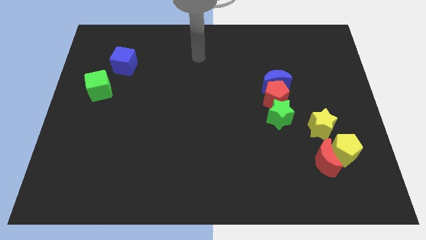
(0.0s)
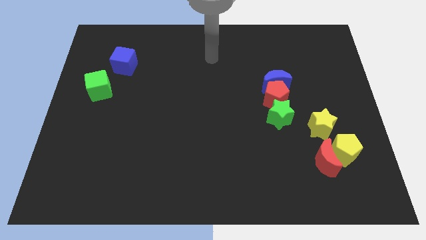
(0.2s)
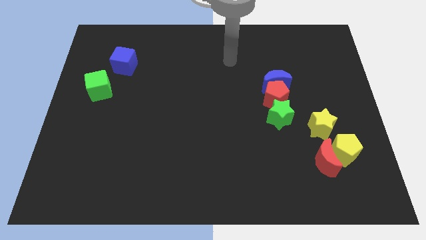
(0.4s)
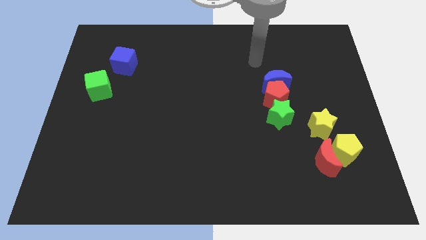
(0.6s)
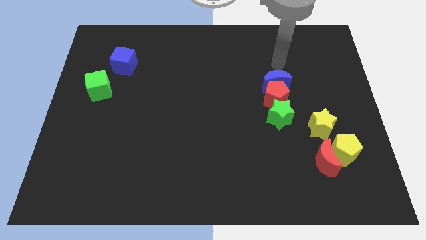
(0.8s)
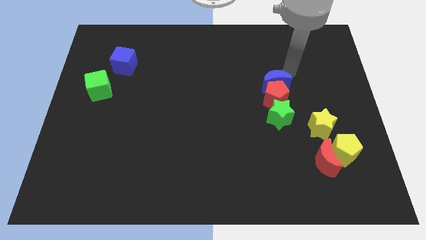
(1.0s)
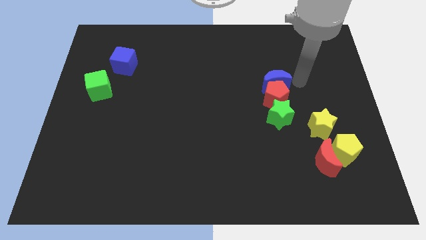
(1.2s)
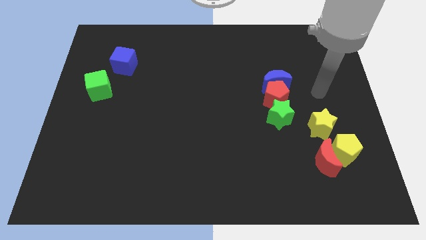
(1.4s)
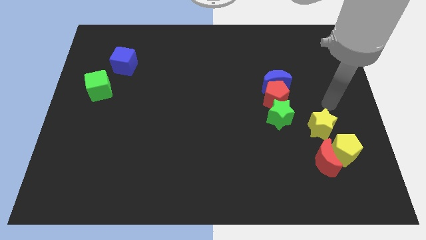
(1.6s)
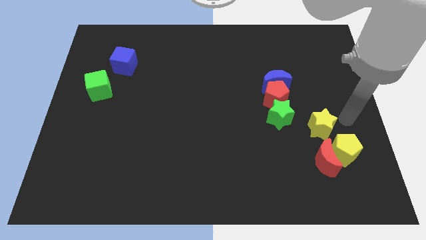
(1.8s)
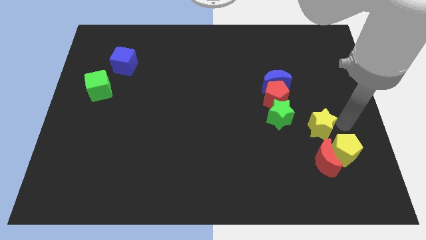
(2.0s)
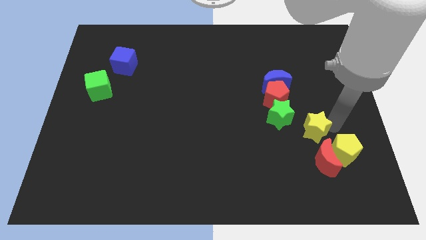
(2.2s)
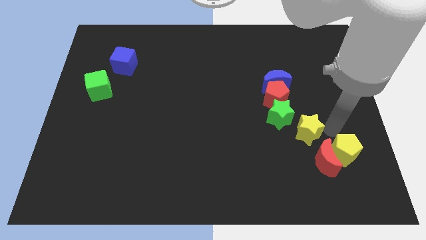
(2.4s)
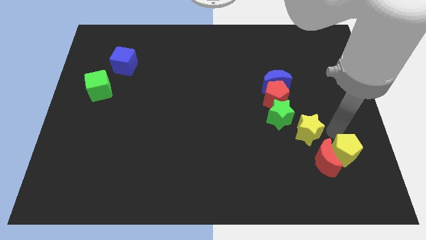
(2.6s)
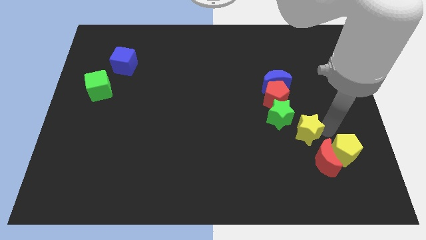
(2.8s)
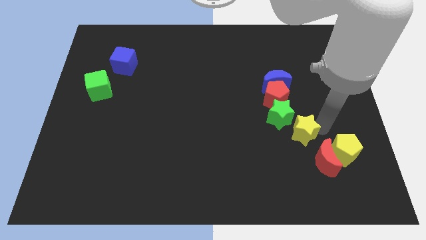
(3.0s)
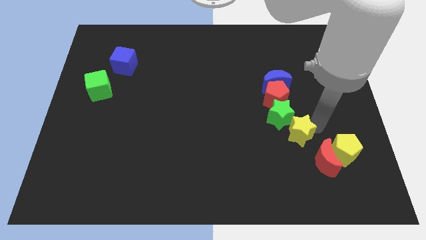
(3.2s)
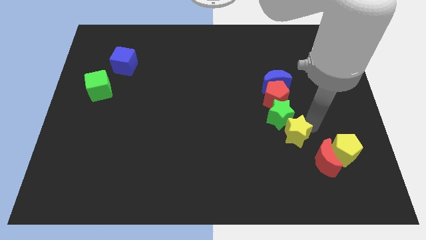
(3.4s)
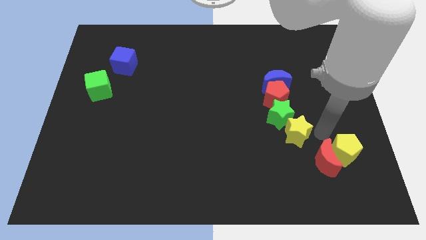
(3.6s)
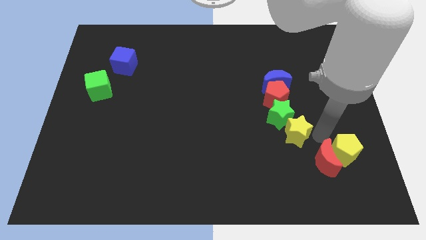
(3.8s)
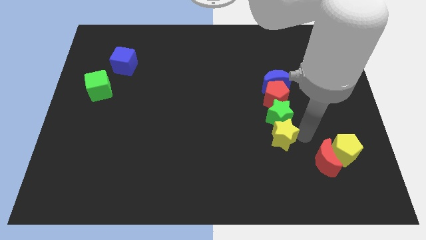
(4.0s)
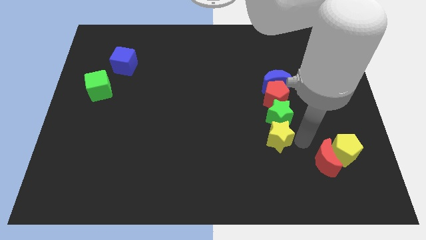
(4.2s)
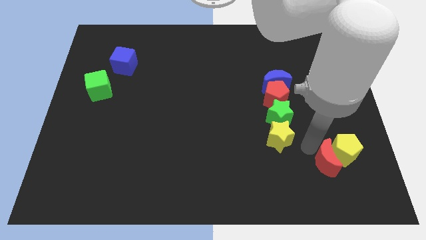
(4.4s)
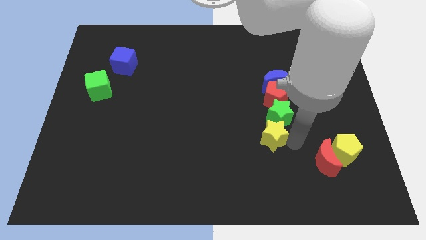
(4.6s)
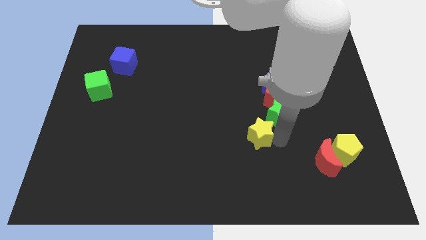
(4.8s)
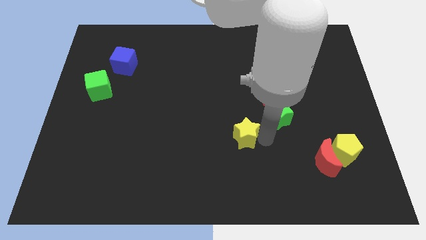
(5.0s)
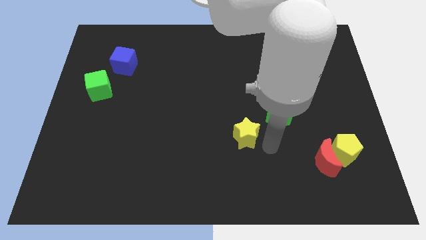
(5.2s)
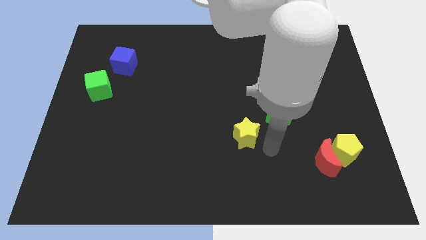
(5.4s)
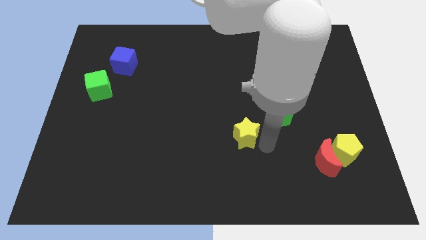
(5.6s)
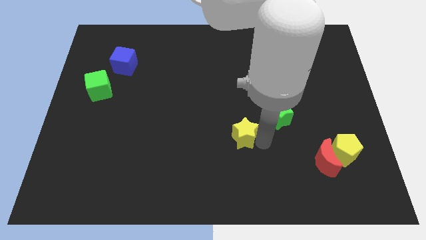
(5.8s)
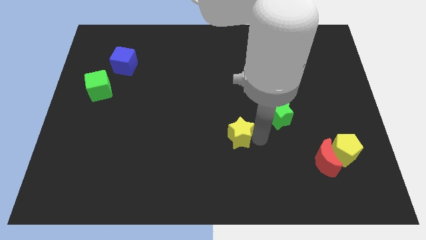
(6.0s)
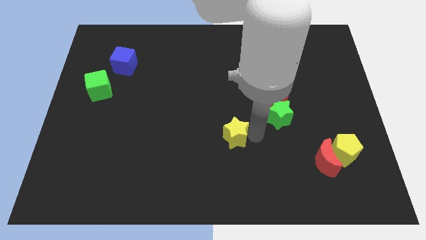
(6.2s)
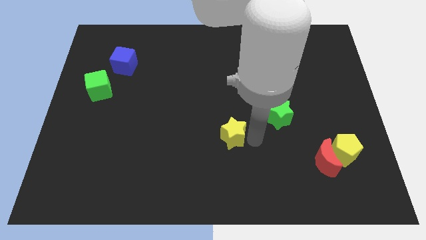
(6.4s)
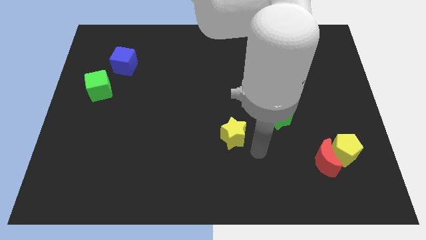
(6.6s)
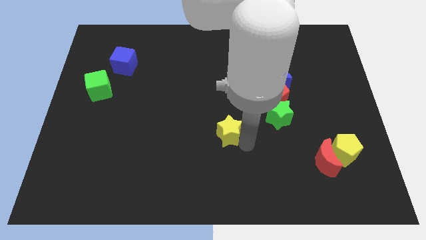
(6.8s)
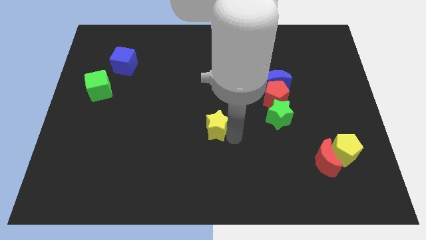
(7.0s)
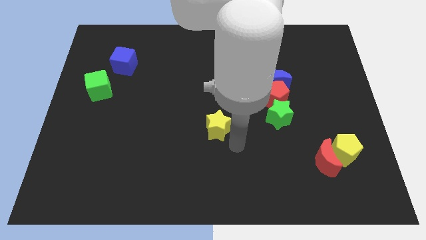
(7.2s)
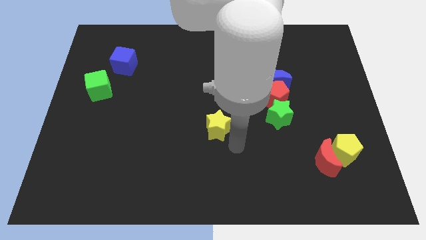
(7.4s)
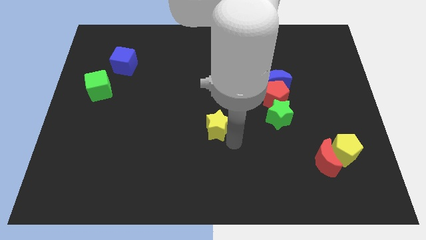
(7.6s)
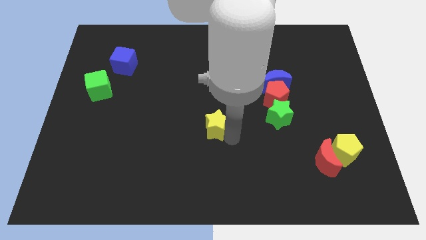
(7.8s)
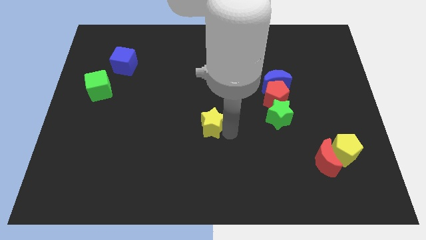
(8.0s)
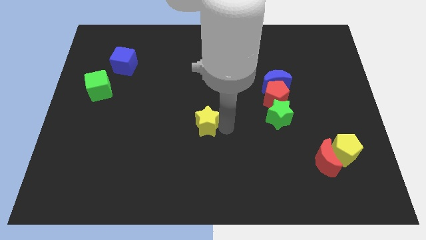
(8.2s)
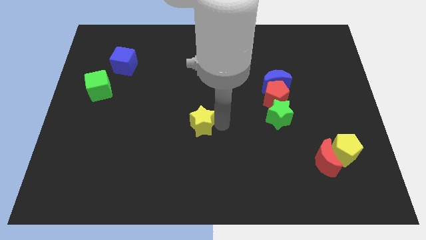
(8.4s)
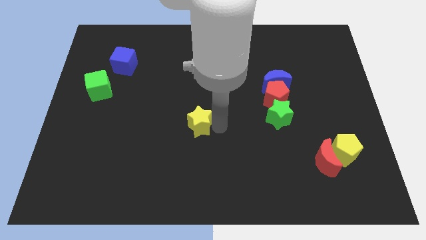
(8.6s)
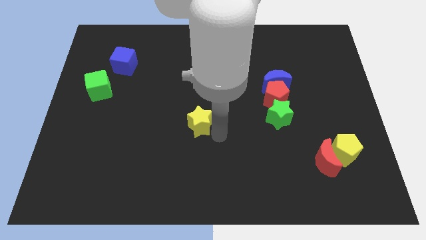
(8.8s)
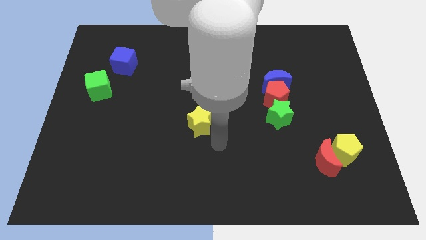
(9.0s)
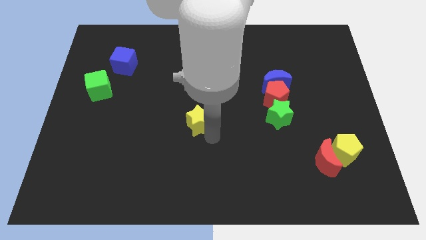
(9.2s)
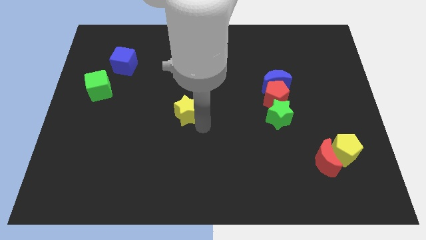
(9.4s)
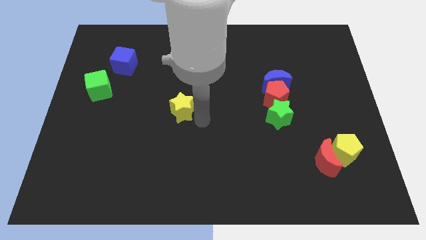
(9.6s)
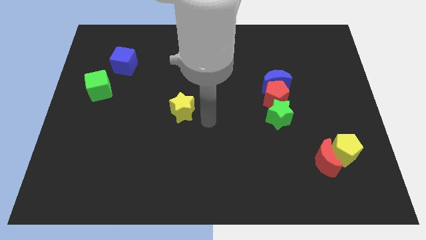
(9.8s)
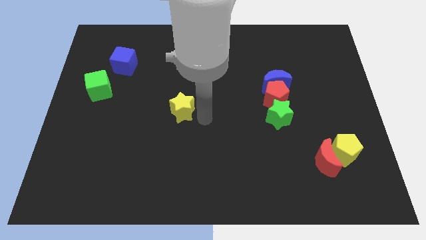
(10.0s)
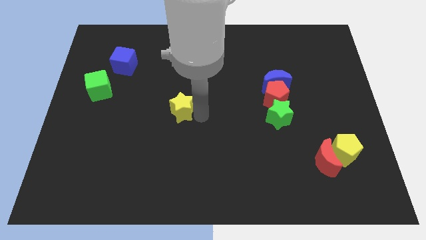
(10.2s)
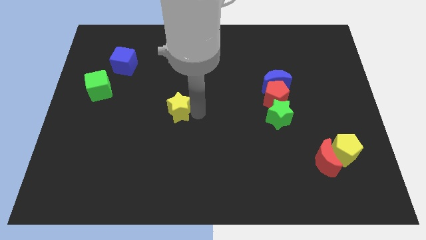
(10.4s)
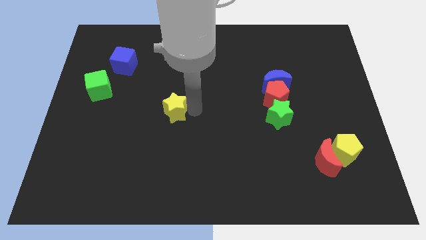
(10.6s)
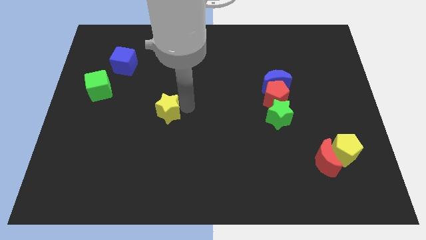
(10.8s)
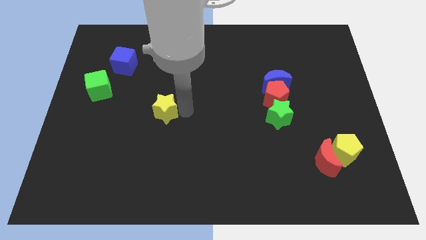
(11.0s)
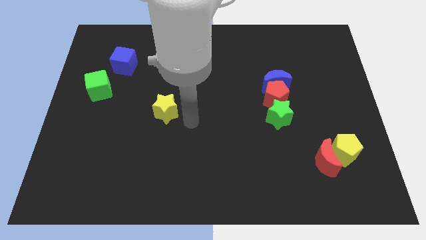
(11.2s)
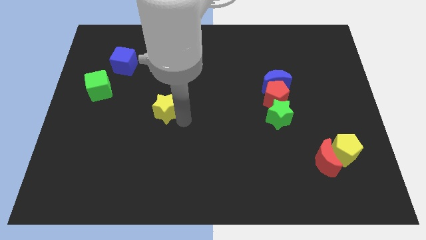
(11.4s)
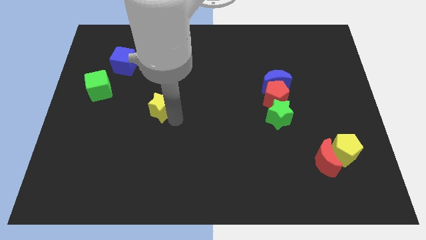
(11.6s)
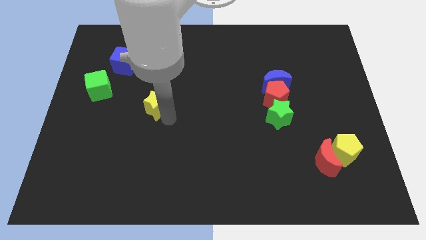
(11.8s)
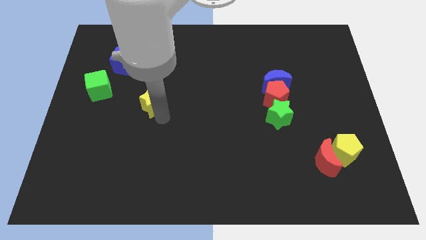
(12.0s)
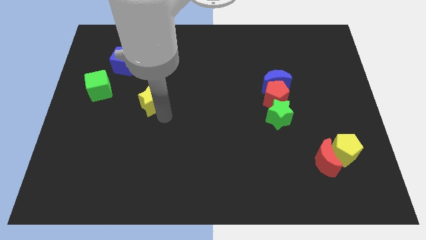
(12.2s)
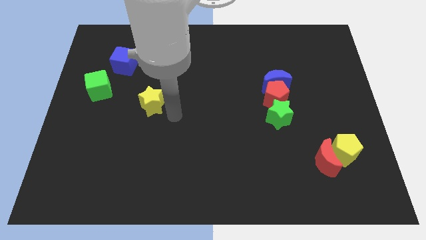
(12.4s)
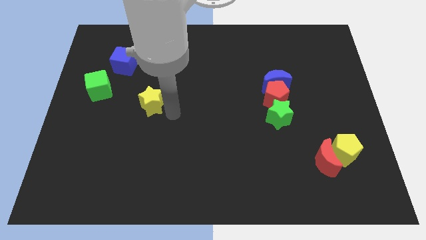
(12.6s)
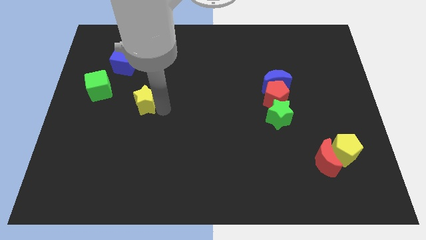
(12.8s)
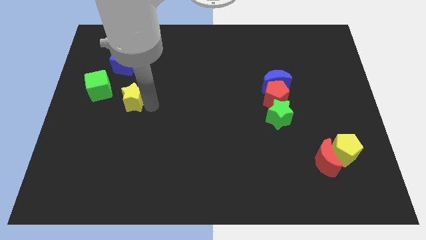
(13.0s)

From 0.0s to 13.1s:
push the yellow star to the bottom of the blue cube

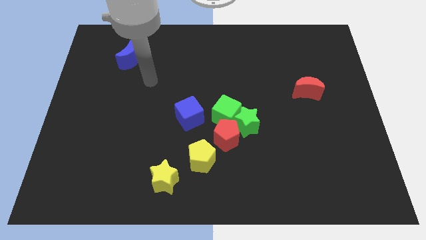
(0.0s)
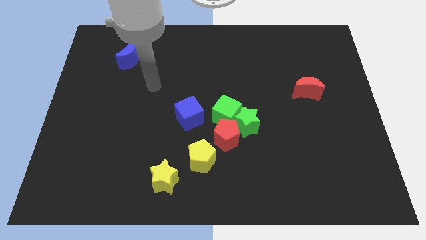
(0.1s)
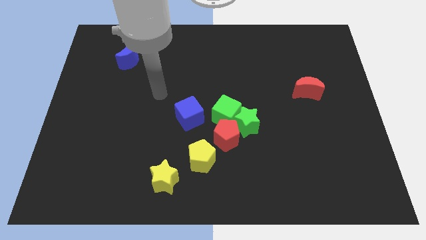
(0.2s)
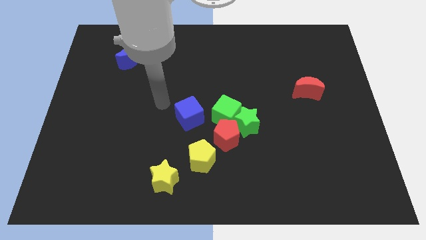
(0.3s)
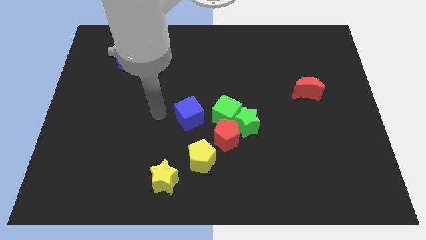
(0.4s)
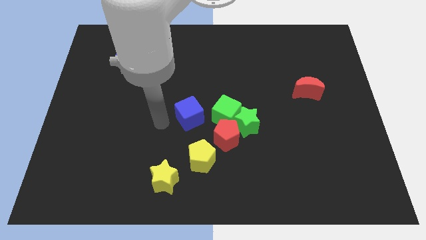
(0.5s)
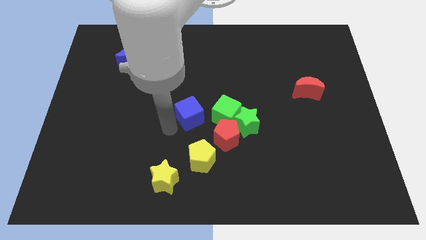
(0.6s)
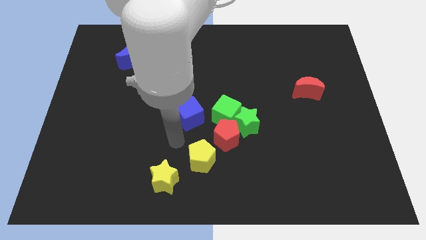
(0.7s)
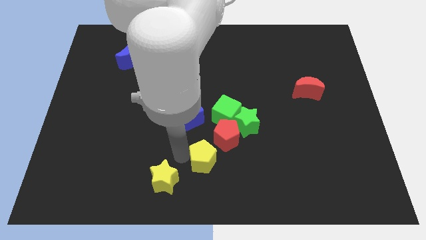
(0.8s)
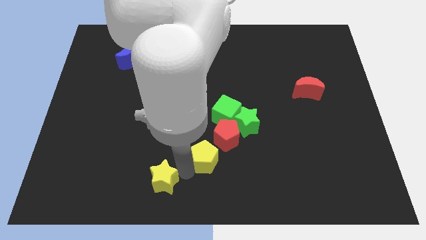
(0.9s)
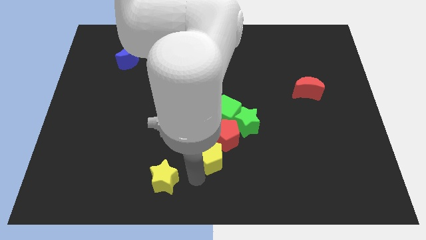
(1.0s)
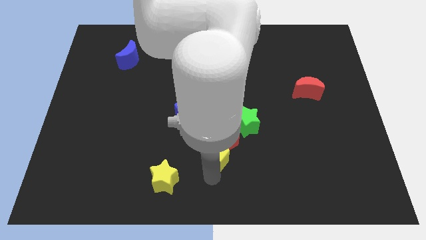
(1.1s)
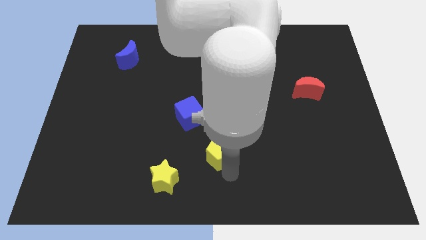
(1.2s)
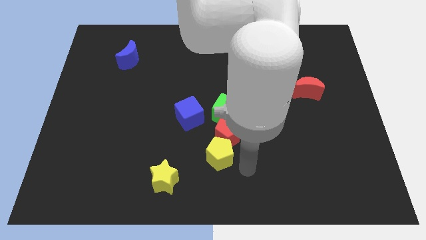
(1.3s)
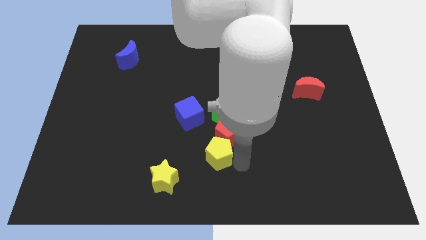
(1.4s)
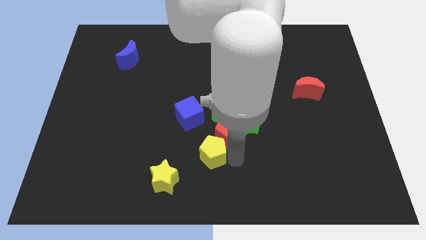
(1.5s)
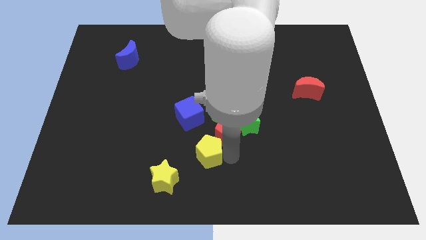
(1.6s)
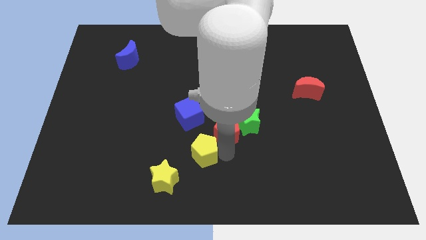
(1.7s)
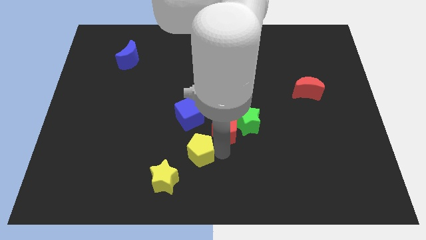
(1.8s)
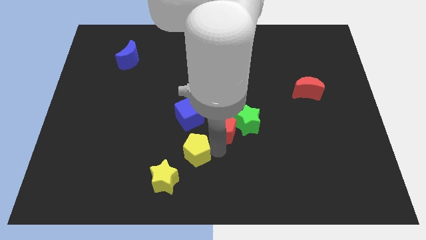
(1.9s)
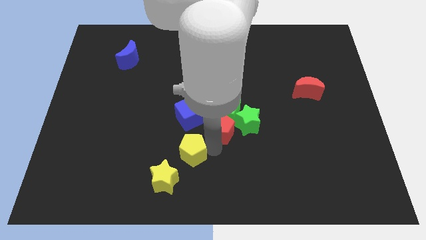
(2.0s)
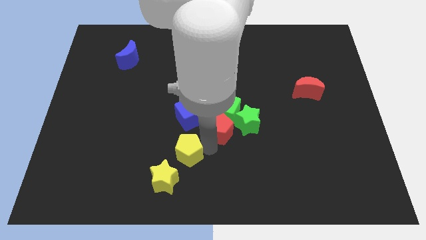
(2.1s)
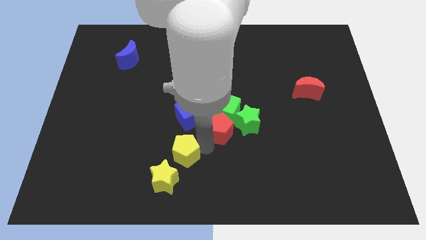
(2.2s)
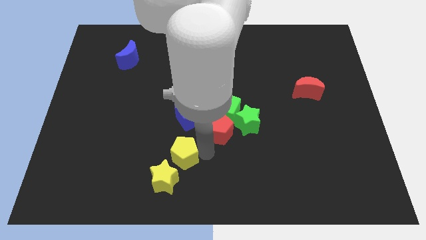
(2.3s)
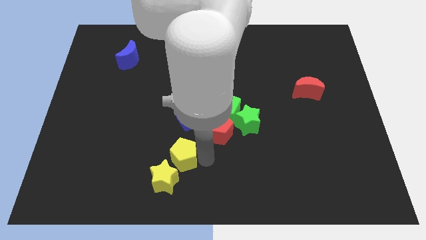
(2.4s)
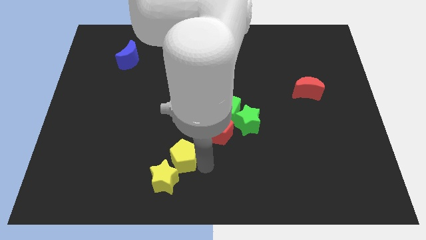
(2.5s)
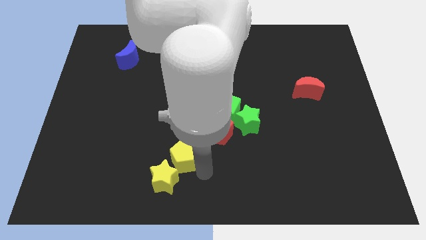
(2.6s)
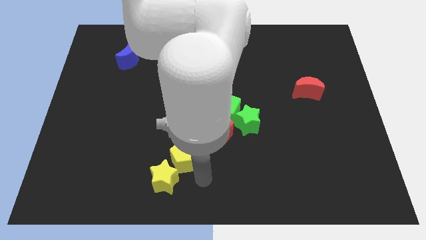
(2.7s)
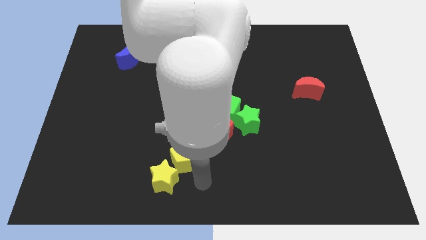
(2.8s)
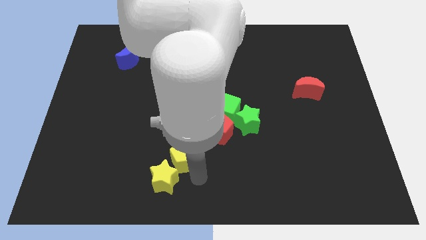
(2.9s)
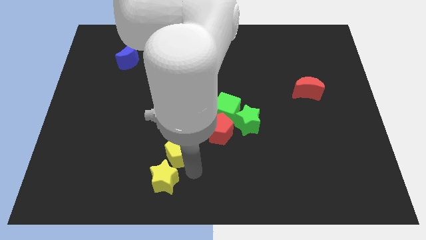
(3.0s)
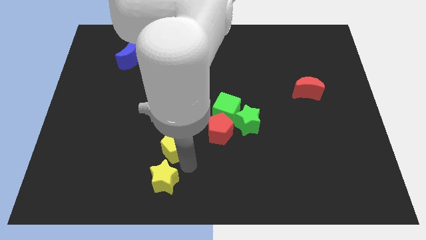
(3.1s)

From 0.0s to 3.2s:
put the yellow pentagon to the bottom left of the blue cube
